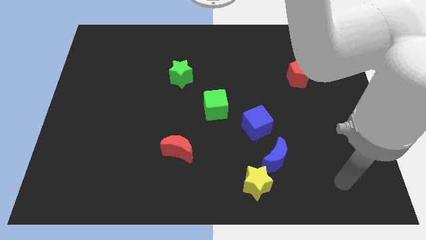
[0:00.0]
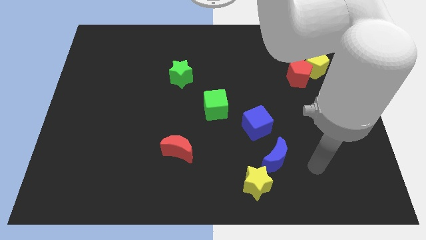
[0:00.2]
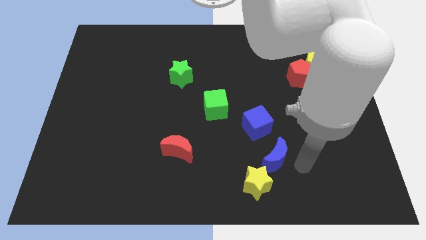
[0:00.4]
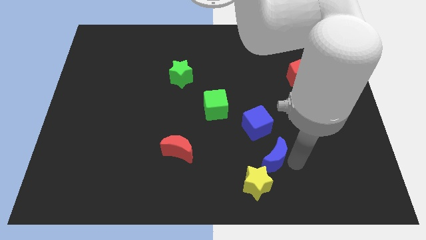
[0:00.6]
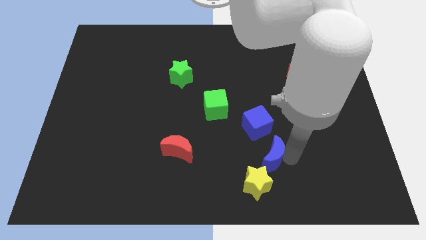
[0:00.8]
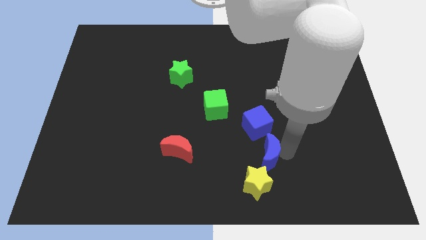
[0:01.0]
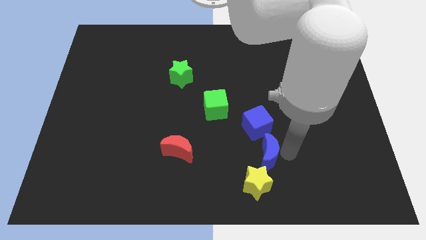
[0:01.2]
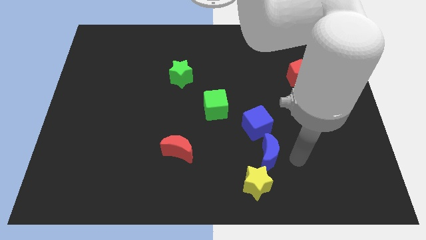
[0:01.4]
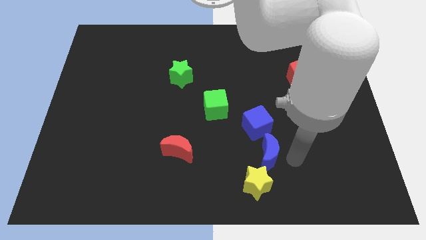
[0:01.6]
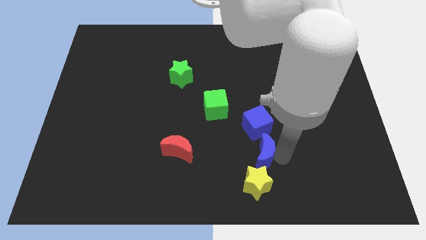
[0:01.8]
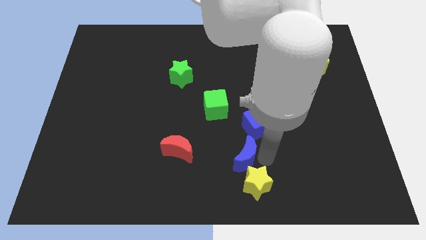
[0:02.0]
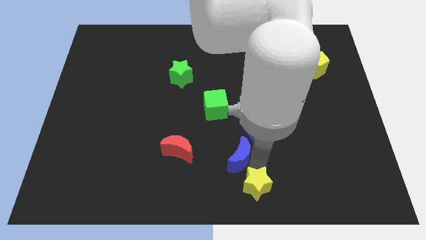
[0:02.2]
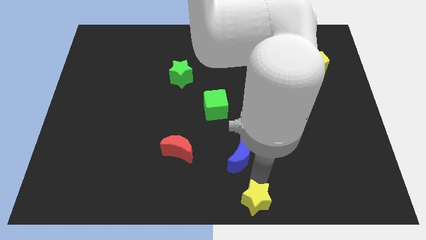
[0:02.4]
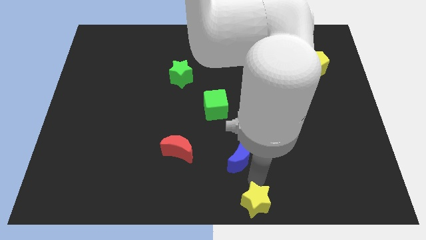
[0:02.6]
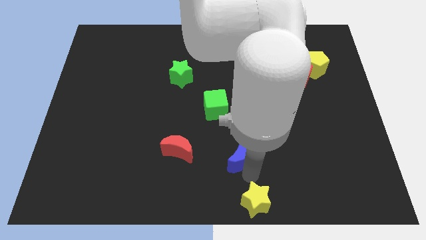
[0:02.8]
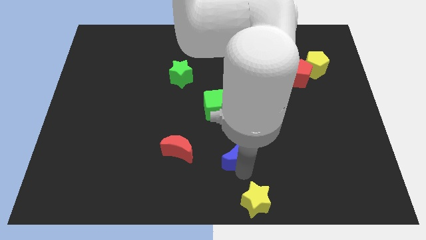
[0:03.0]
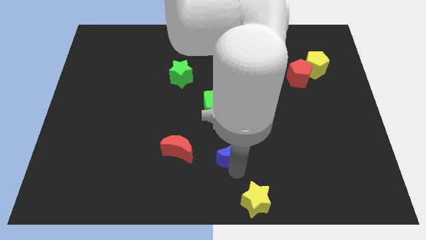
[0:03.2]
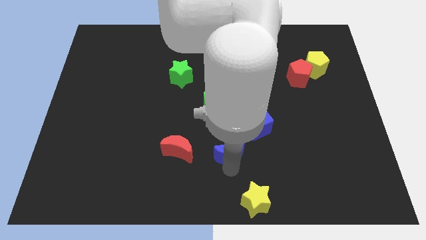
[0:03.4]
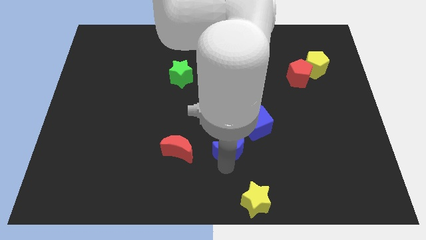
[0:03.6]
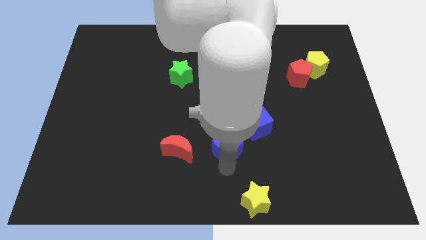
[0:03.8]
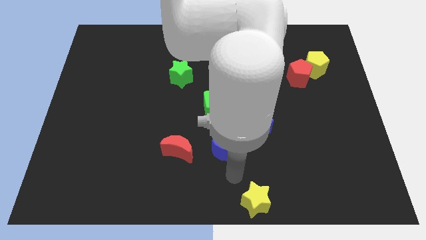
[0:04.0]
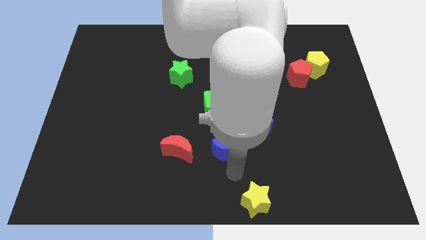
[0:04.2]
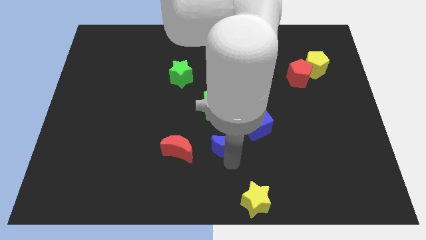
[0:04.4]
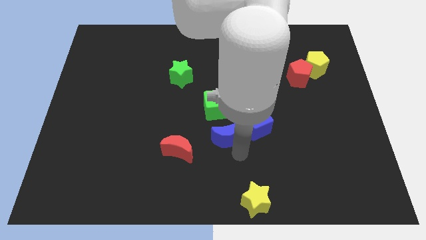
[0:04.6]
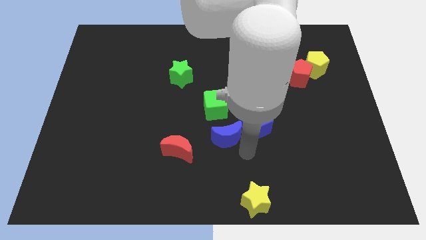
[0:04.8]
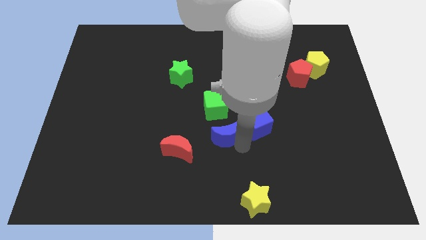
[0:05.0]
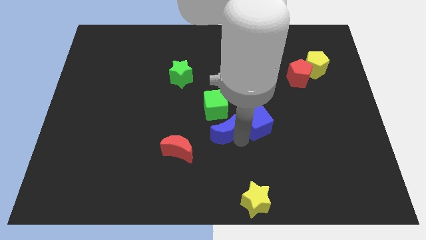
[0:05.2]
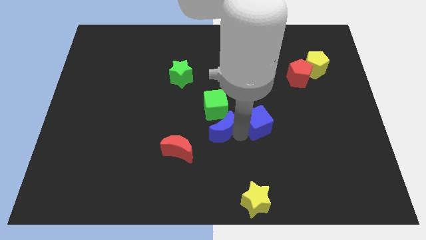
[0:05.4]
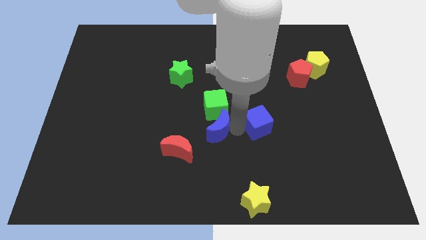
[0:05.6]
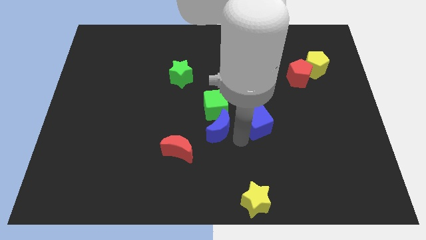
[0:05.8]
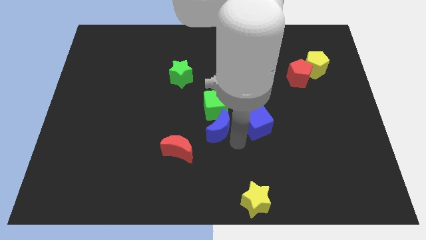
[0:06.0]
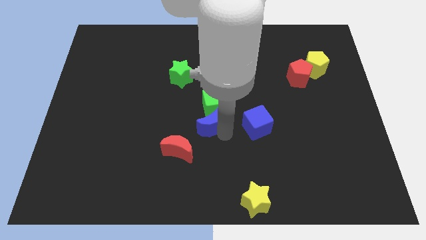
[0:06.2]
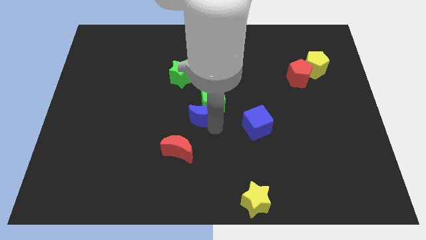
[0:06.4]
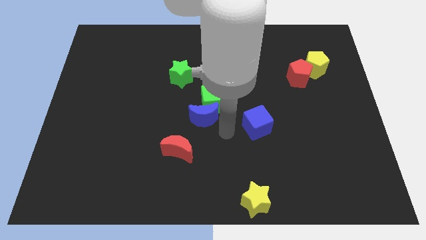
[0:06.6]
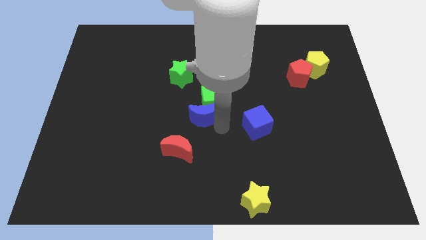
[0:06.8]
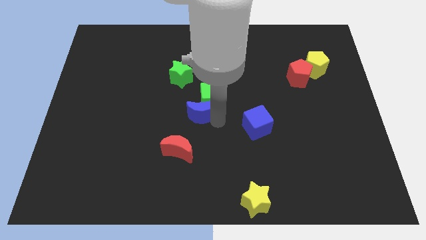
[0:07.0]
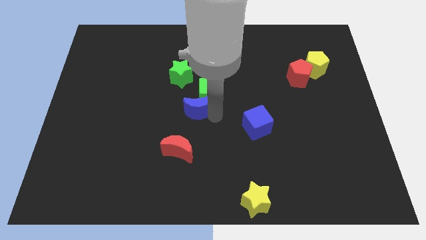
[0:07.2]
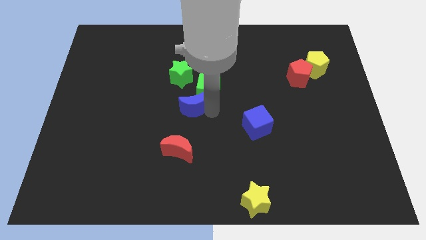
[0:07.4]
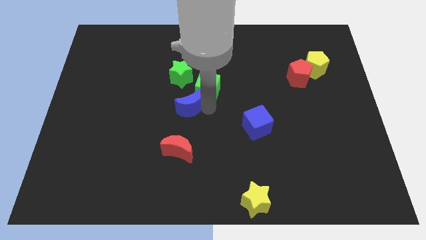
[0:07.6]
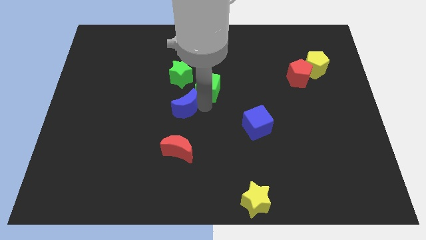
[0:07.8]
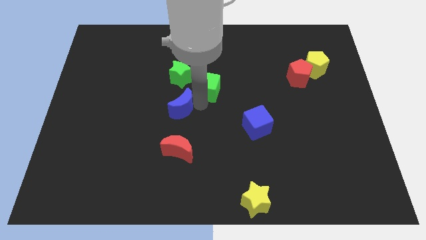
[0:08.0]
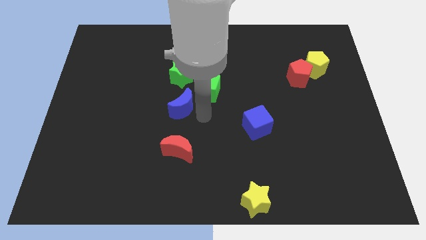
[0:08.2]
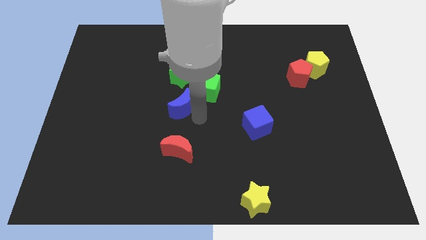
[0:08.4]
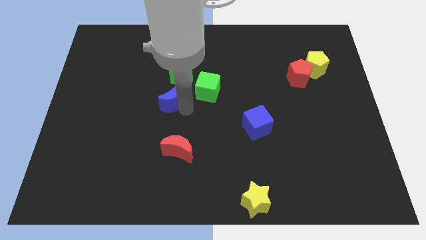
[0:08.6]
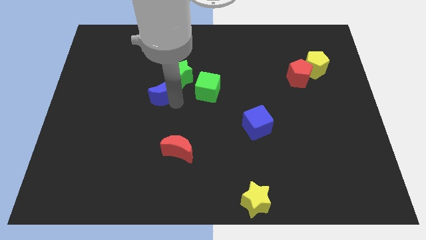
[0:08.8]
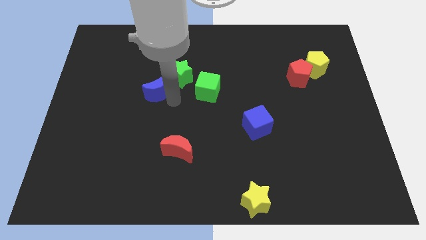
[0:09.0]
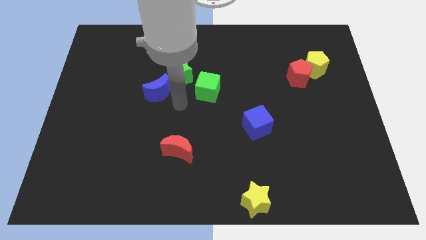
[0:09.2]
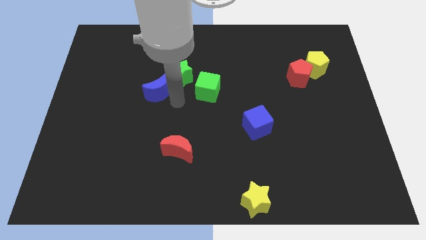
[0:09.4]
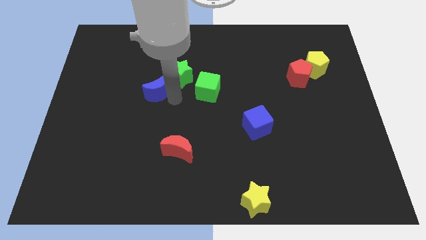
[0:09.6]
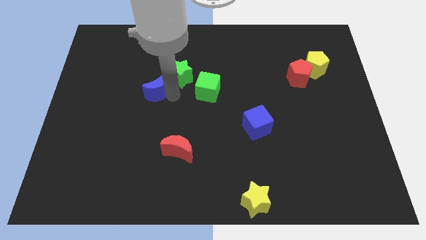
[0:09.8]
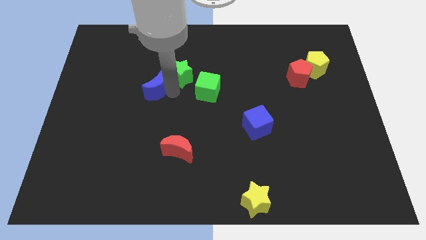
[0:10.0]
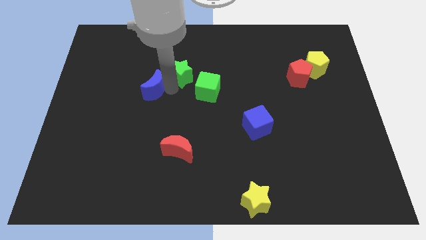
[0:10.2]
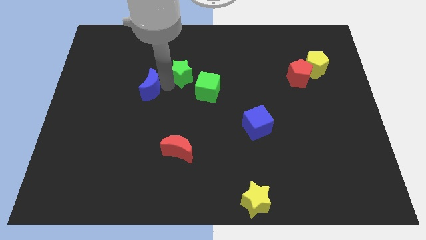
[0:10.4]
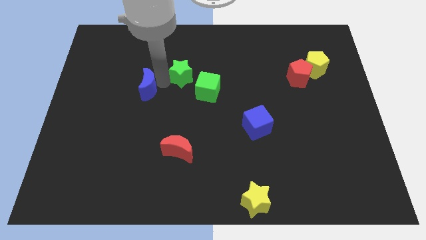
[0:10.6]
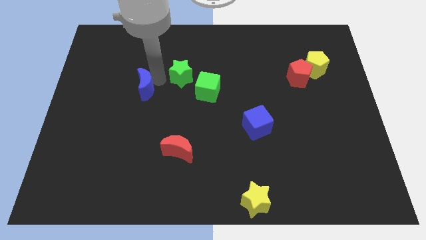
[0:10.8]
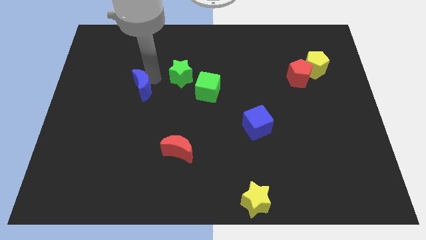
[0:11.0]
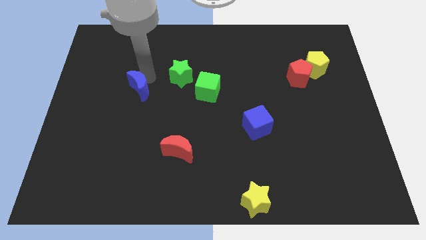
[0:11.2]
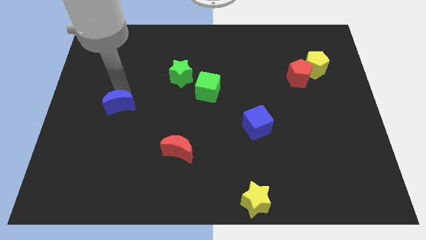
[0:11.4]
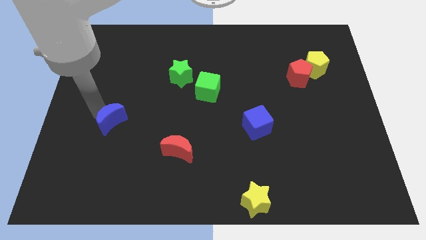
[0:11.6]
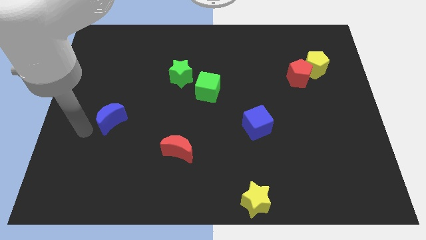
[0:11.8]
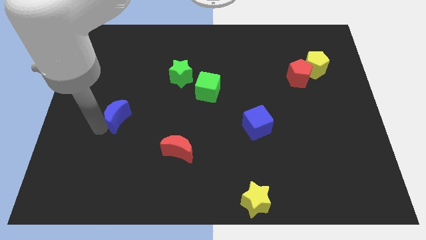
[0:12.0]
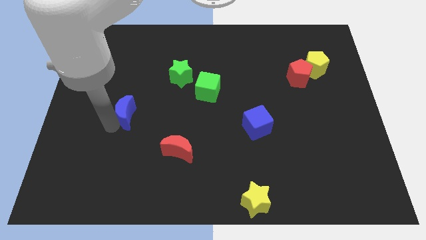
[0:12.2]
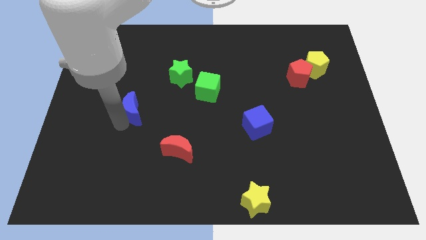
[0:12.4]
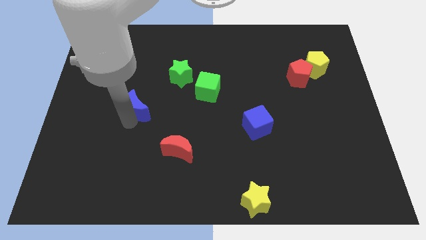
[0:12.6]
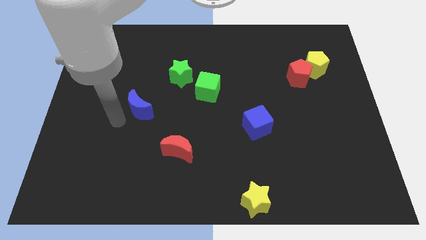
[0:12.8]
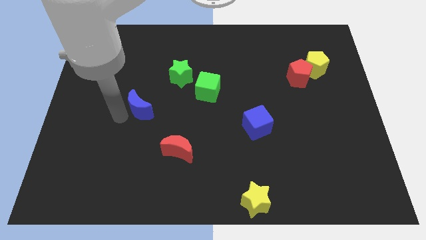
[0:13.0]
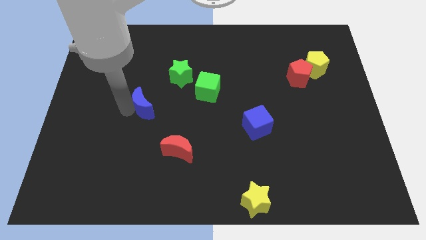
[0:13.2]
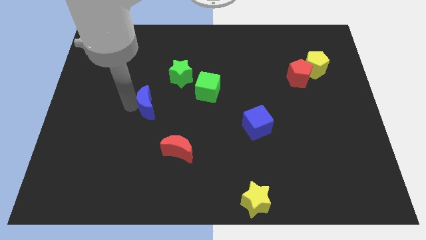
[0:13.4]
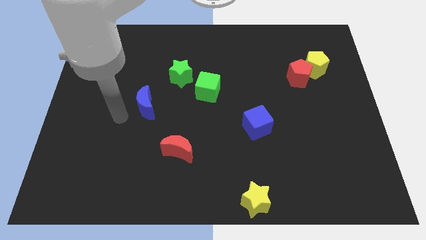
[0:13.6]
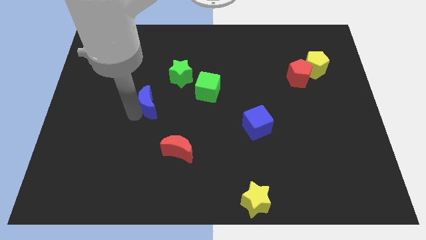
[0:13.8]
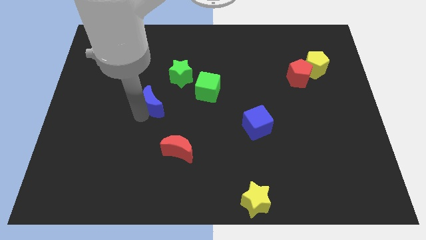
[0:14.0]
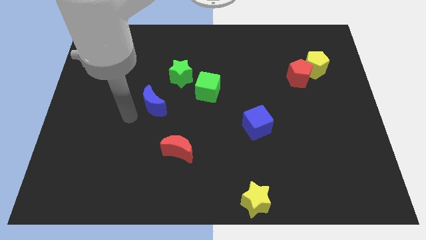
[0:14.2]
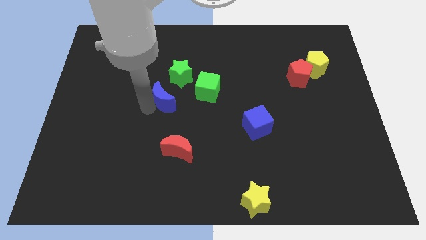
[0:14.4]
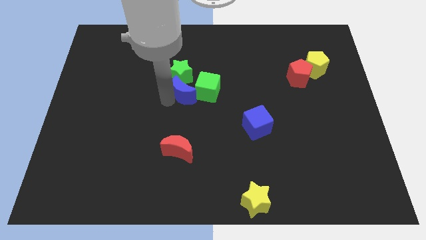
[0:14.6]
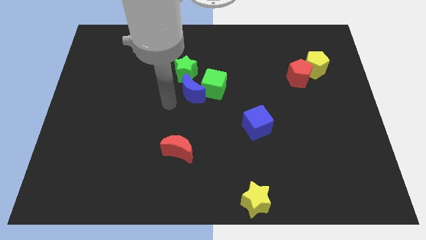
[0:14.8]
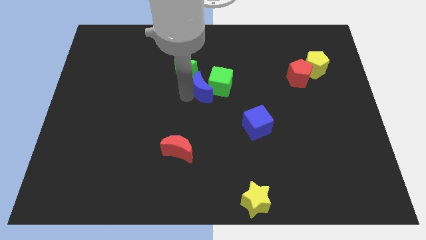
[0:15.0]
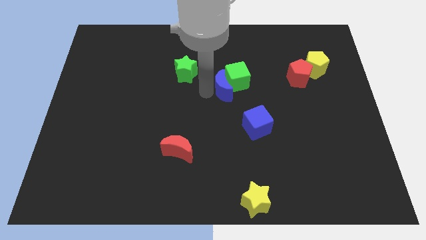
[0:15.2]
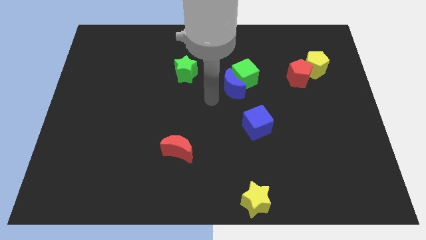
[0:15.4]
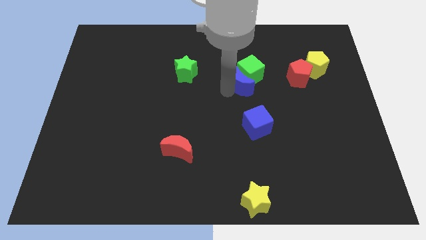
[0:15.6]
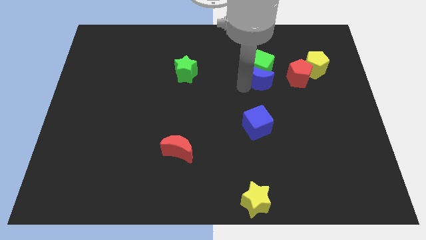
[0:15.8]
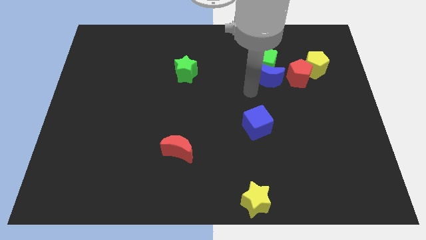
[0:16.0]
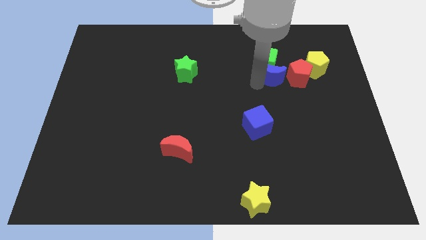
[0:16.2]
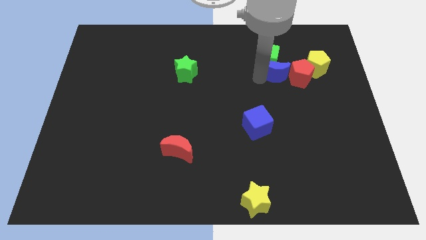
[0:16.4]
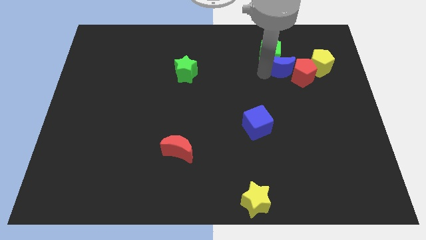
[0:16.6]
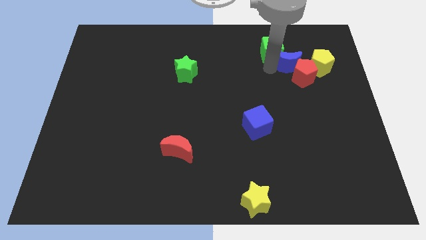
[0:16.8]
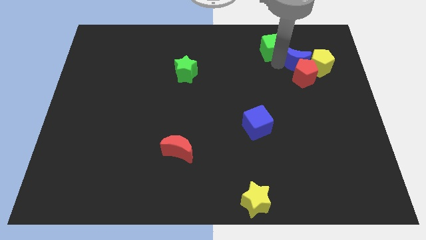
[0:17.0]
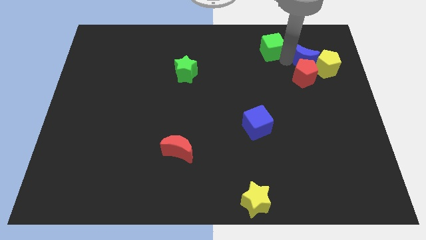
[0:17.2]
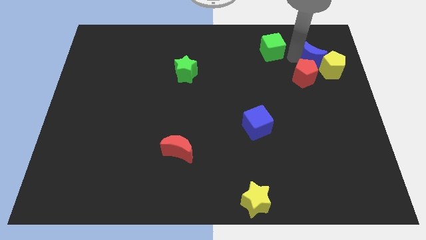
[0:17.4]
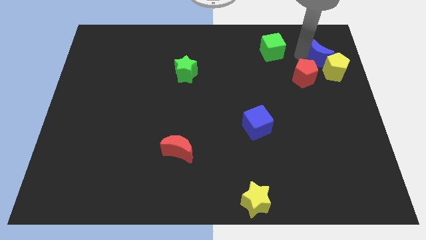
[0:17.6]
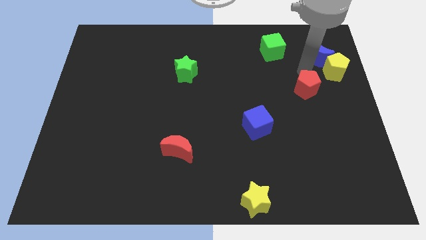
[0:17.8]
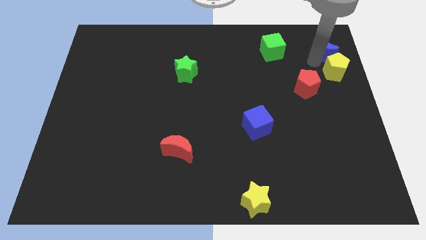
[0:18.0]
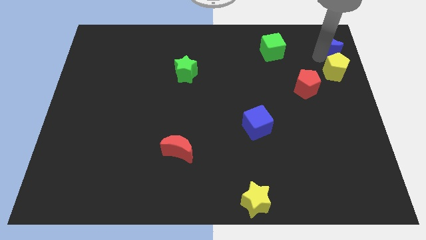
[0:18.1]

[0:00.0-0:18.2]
push the blue moon to the top right of the board
